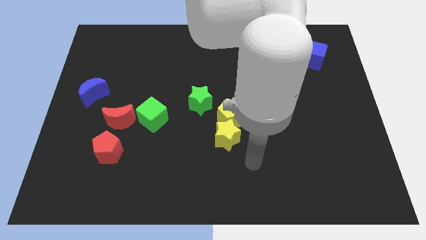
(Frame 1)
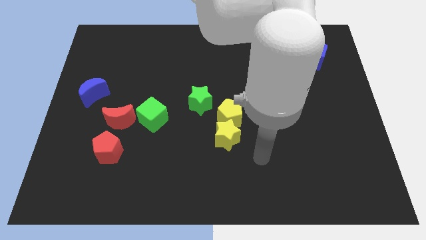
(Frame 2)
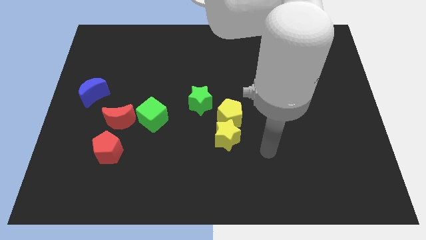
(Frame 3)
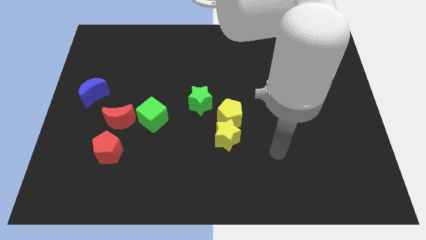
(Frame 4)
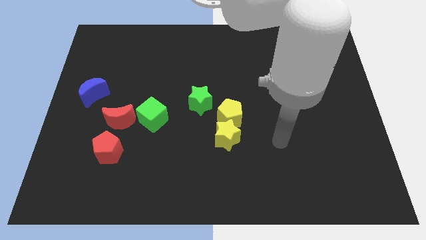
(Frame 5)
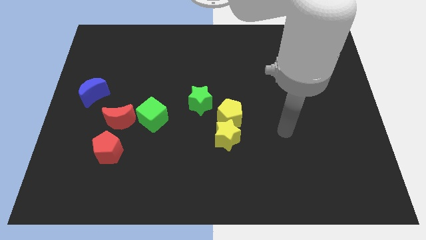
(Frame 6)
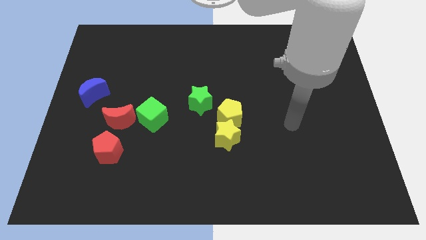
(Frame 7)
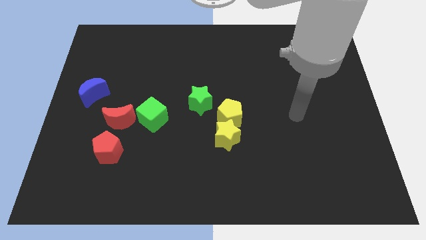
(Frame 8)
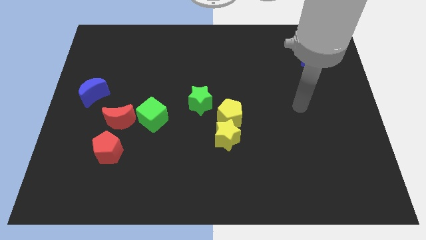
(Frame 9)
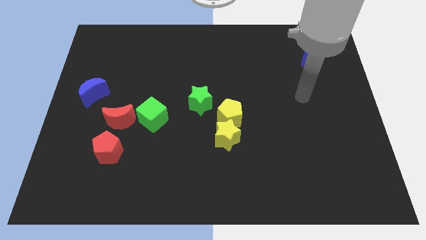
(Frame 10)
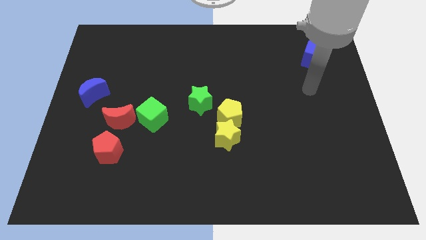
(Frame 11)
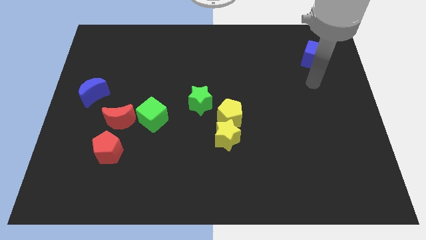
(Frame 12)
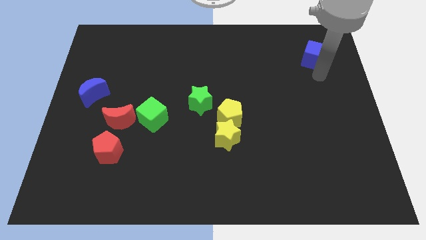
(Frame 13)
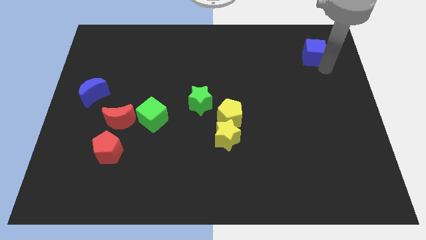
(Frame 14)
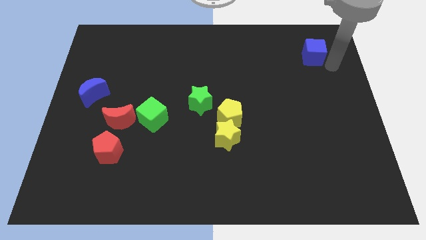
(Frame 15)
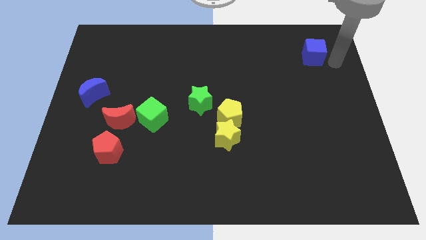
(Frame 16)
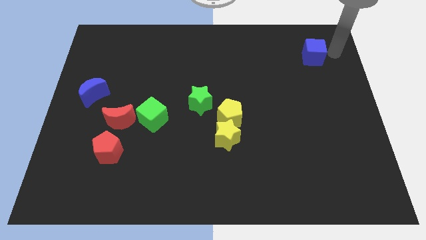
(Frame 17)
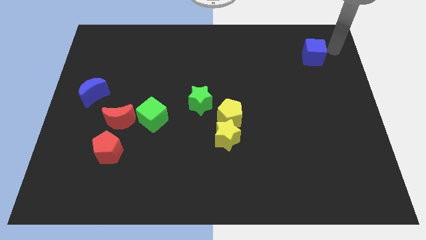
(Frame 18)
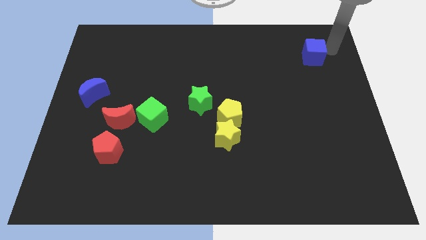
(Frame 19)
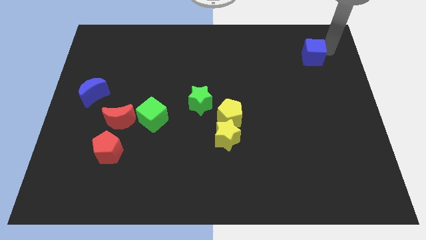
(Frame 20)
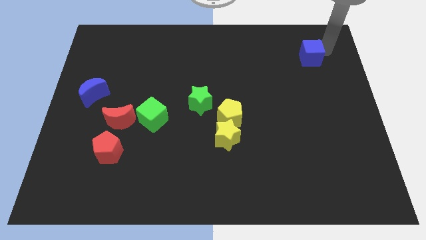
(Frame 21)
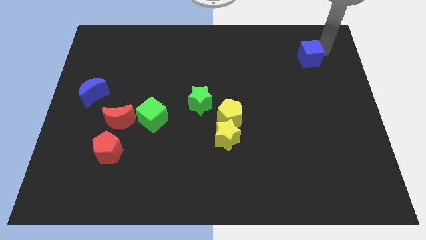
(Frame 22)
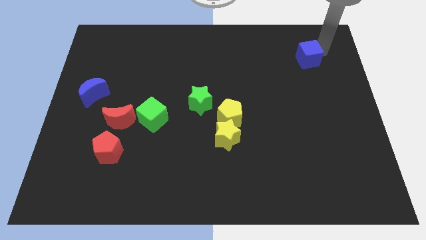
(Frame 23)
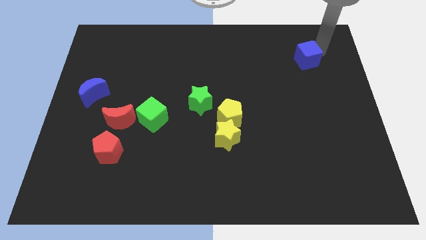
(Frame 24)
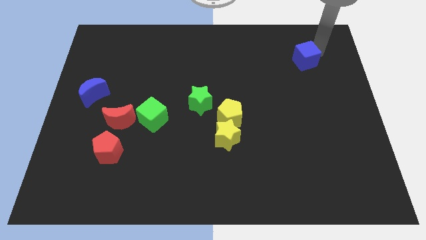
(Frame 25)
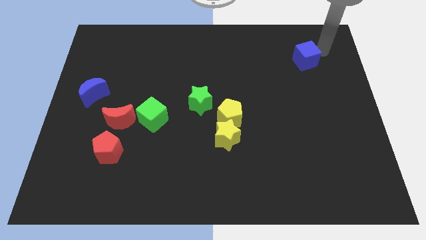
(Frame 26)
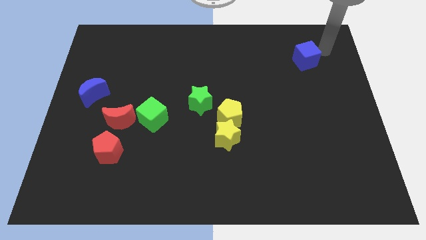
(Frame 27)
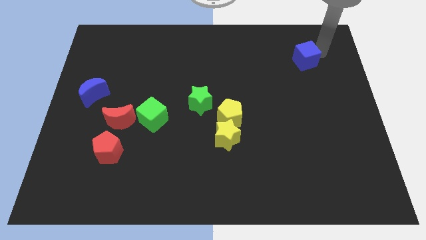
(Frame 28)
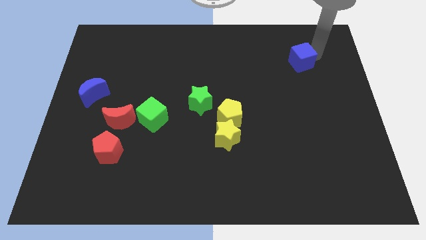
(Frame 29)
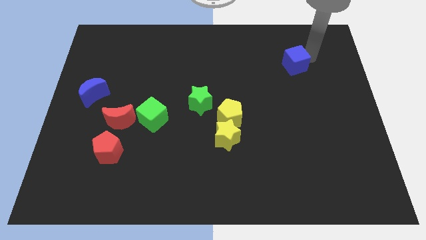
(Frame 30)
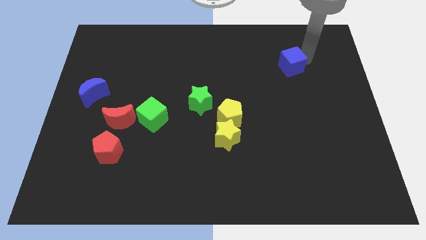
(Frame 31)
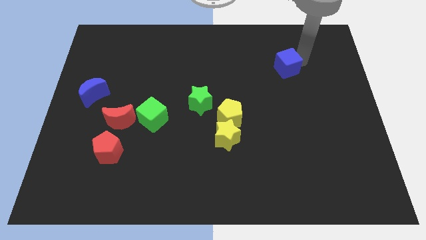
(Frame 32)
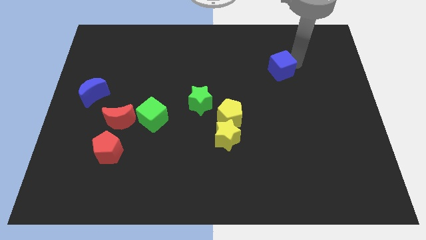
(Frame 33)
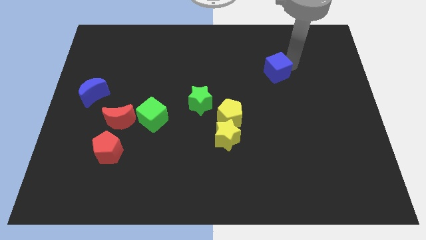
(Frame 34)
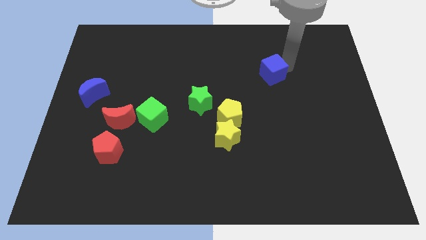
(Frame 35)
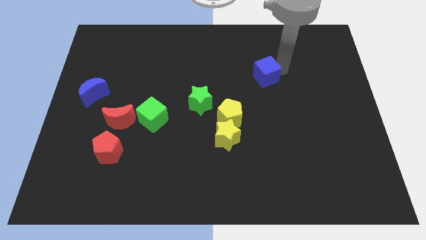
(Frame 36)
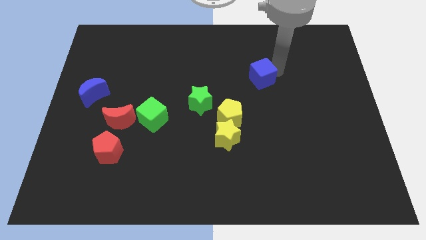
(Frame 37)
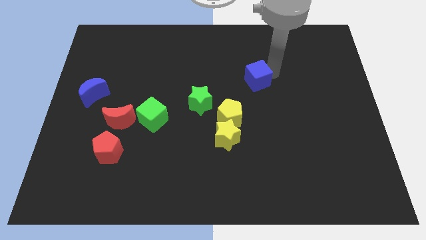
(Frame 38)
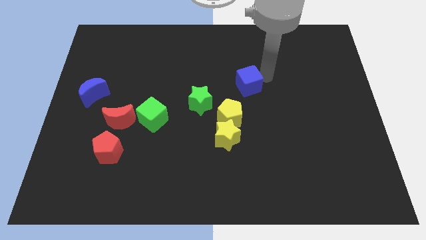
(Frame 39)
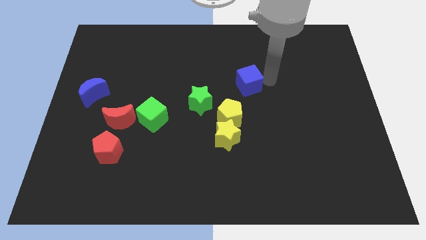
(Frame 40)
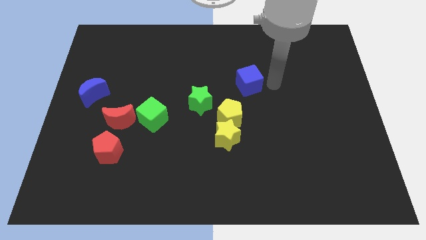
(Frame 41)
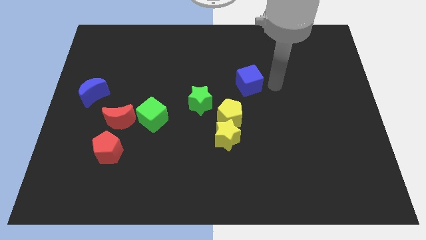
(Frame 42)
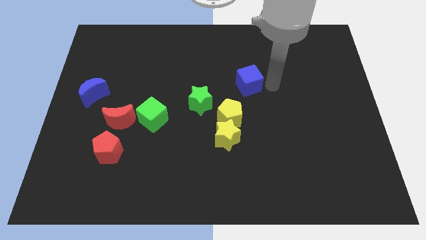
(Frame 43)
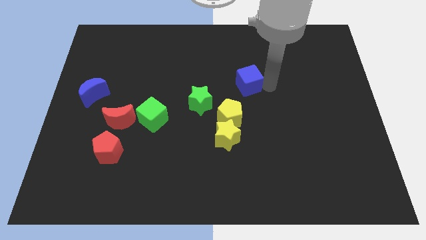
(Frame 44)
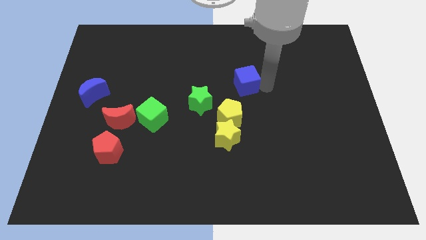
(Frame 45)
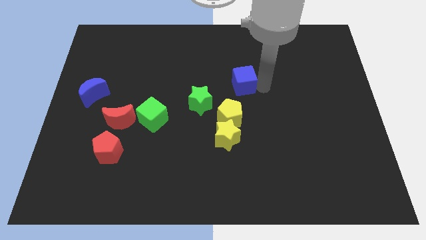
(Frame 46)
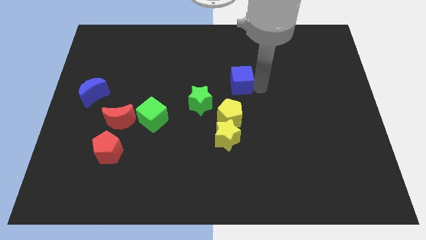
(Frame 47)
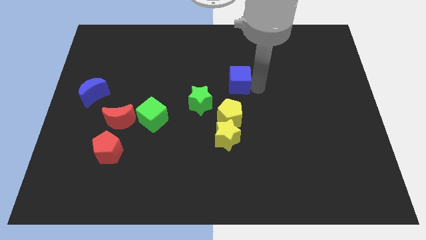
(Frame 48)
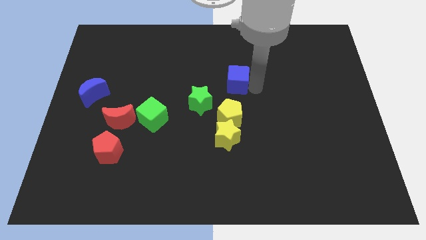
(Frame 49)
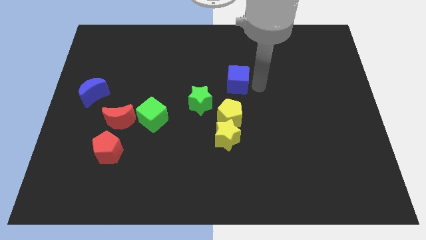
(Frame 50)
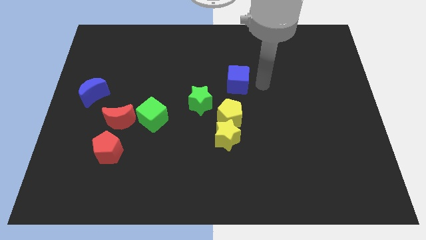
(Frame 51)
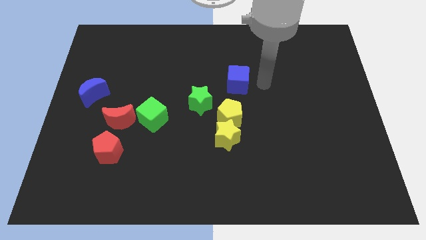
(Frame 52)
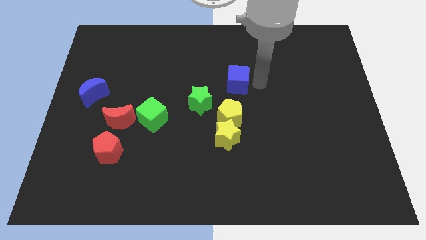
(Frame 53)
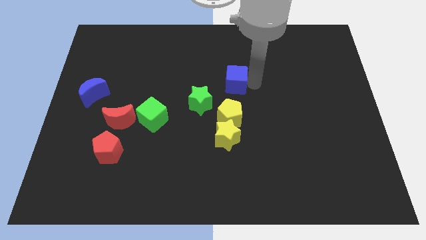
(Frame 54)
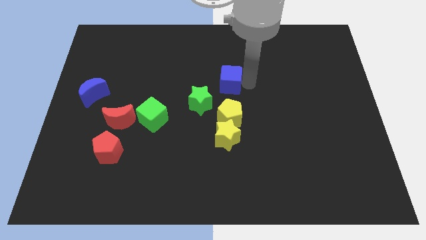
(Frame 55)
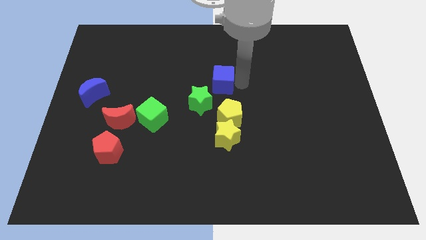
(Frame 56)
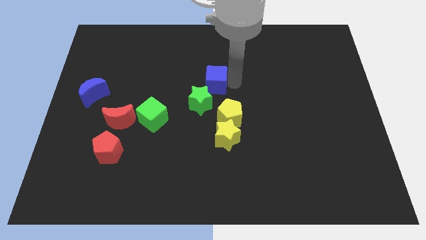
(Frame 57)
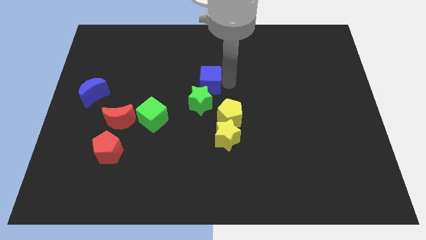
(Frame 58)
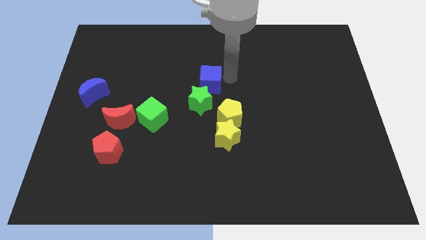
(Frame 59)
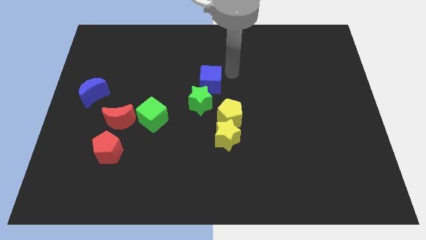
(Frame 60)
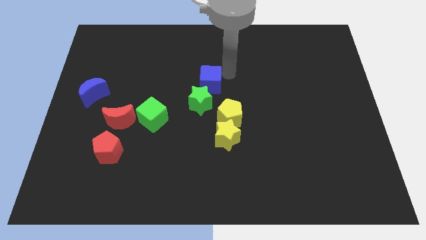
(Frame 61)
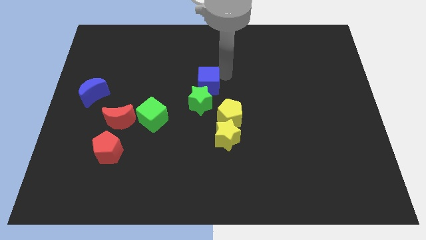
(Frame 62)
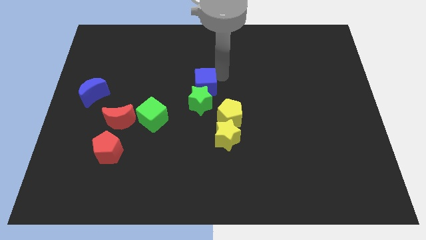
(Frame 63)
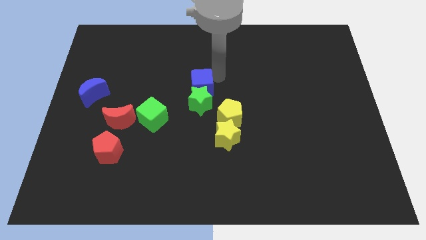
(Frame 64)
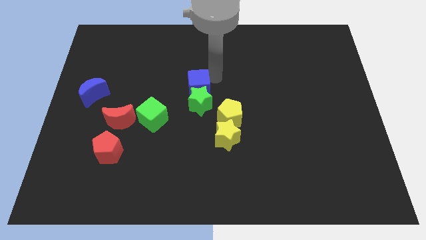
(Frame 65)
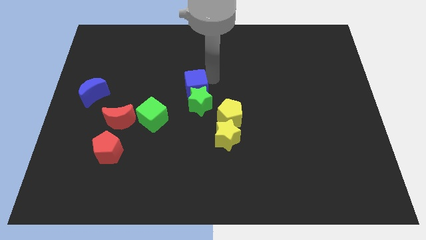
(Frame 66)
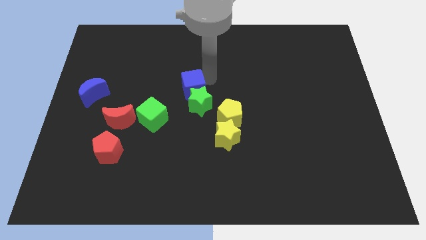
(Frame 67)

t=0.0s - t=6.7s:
put the blue cube to the top right of the green cube
